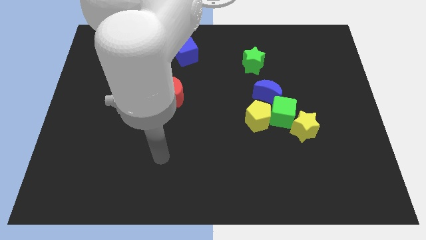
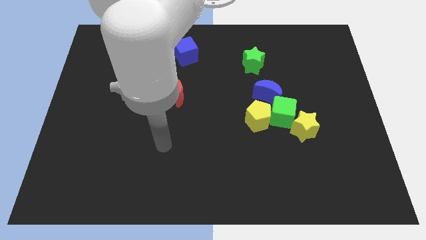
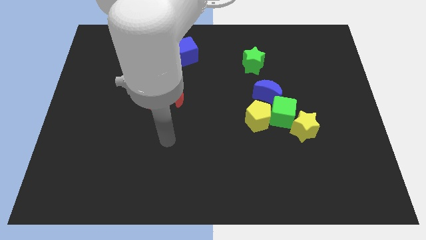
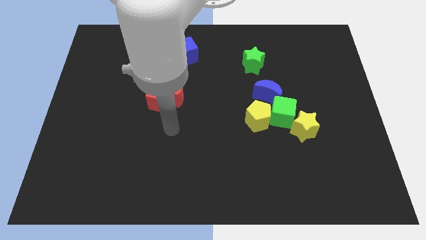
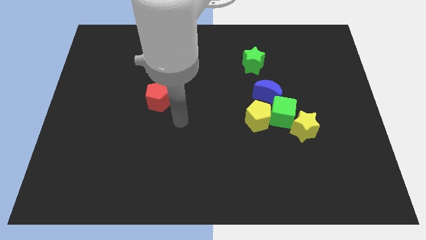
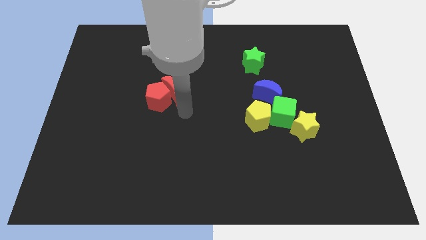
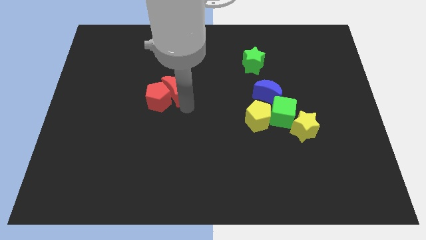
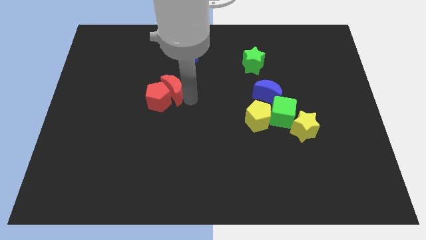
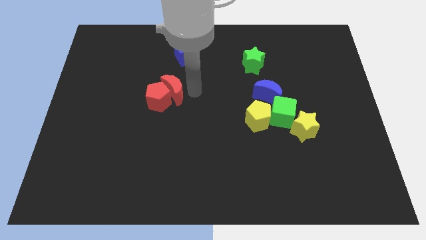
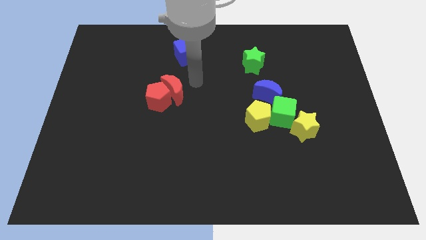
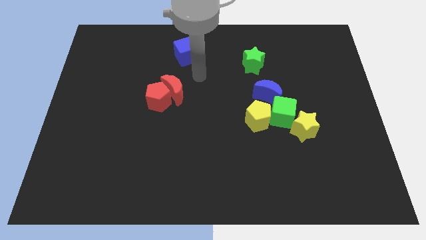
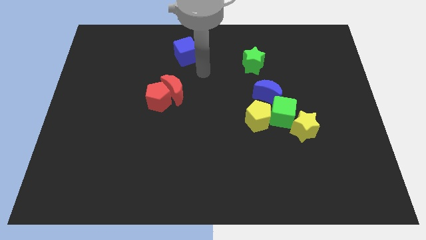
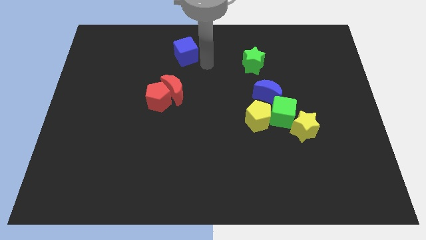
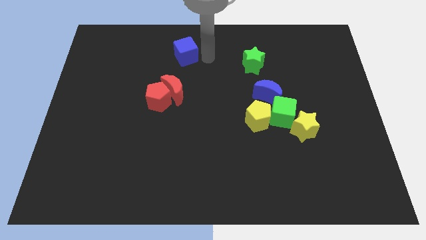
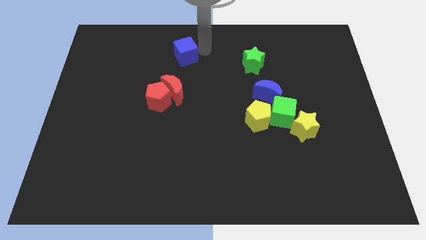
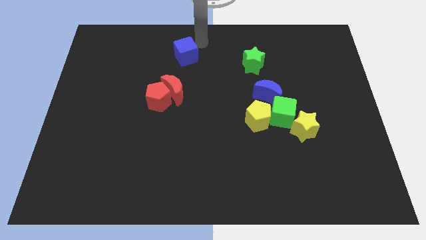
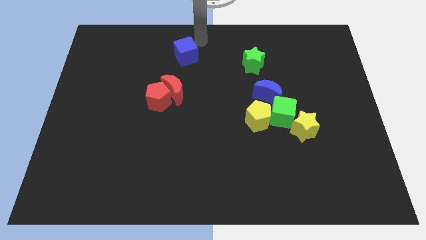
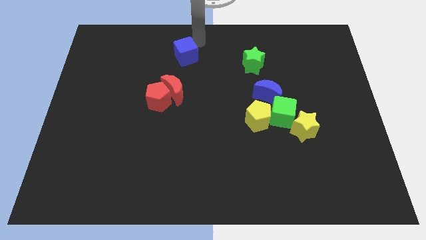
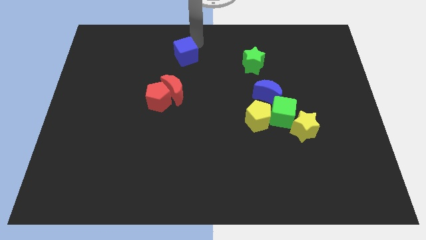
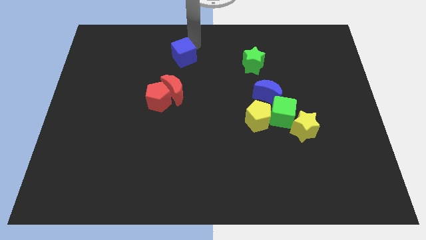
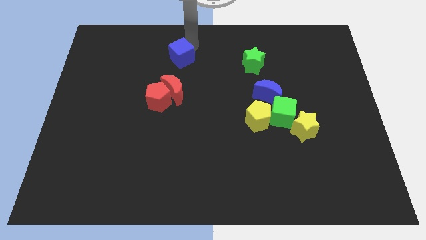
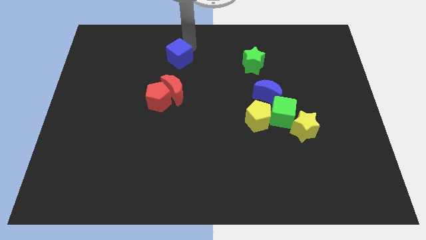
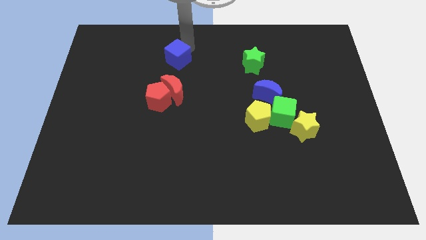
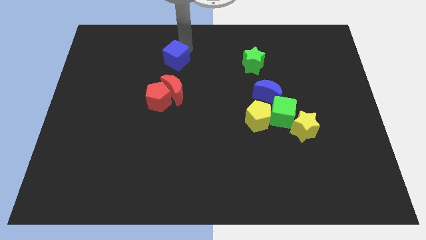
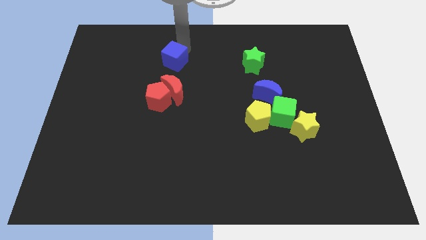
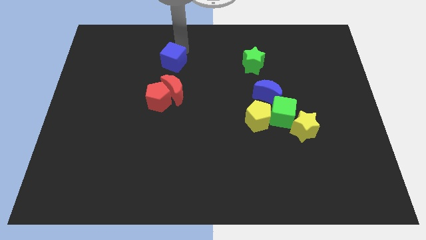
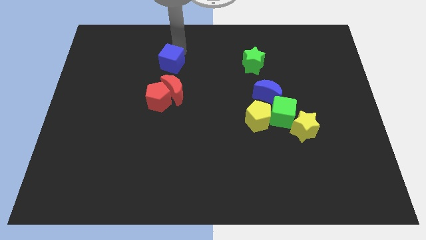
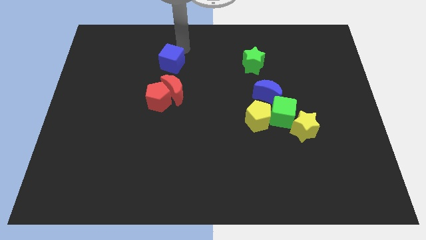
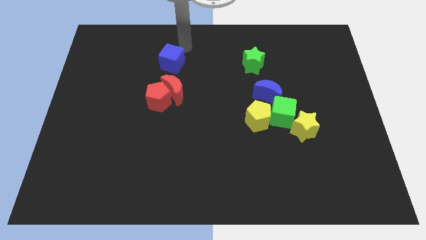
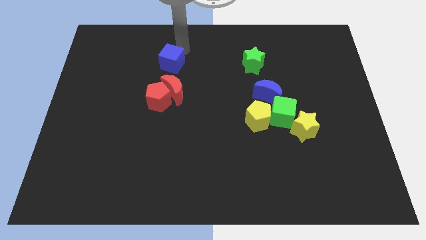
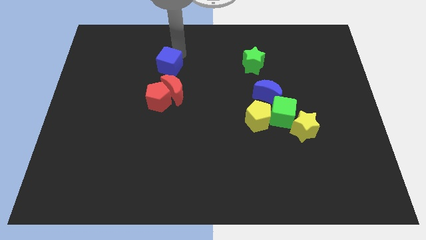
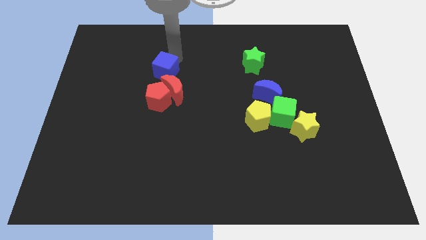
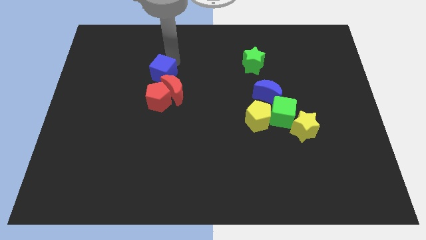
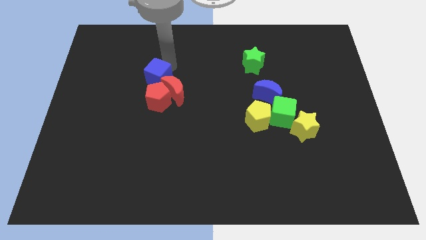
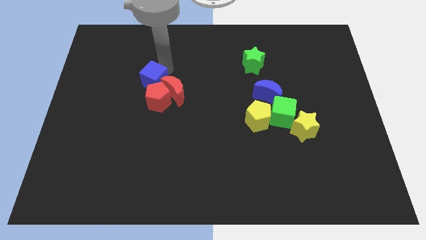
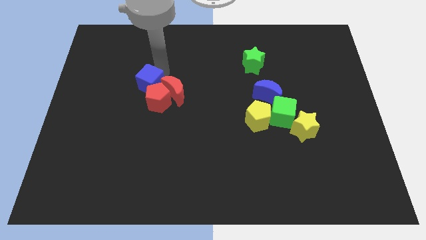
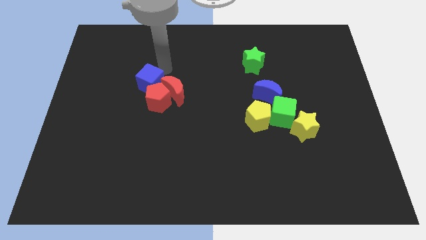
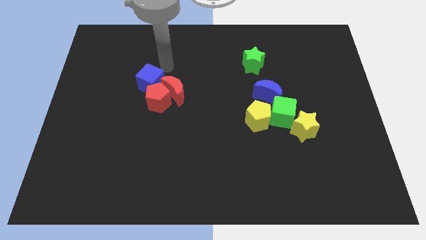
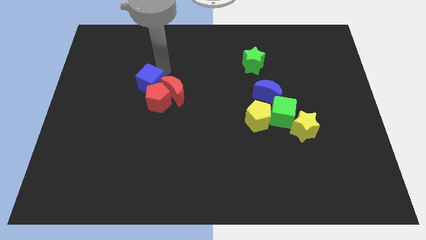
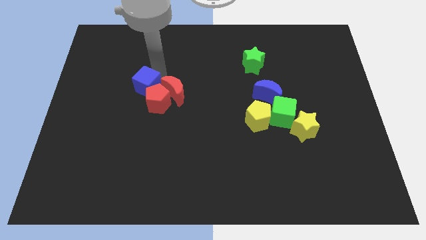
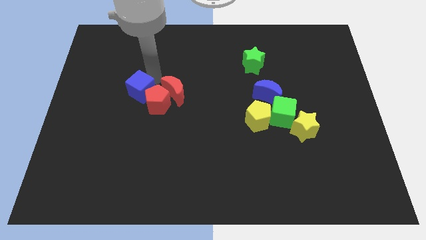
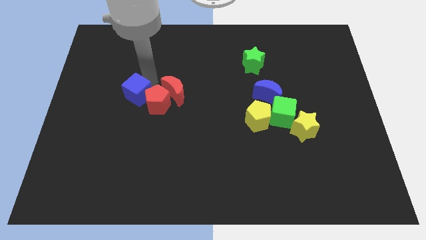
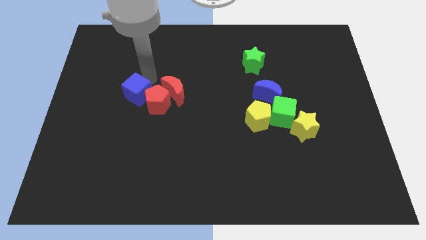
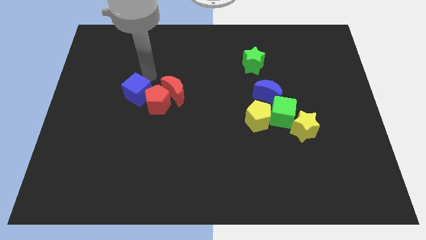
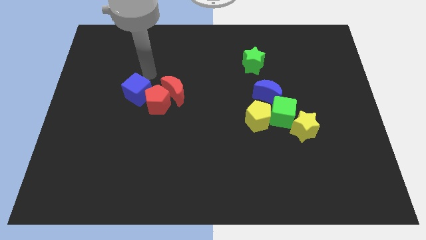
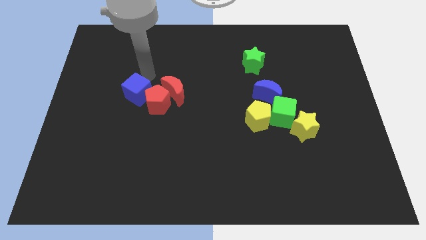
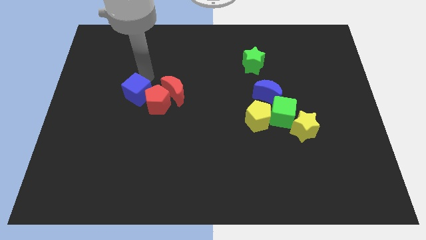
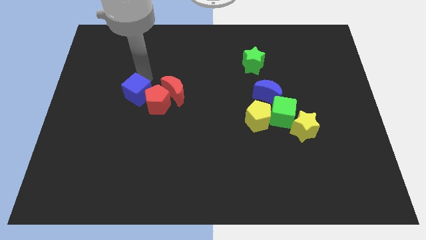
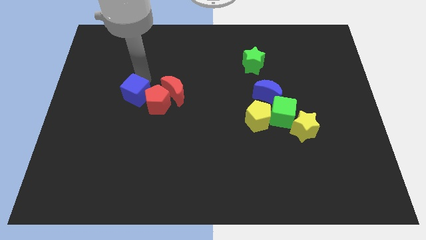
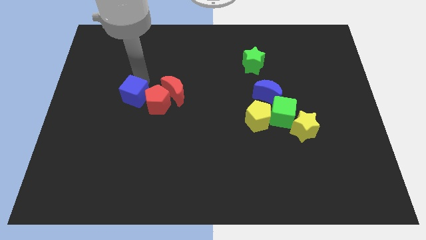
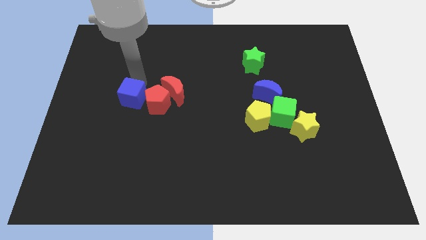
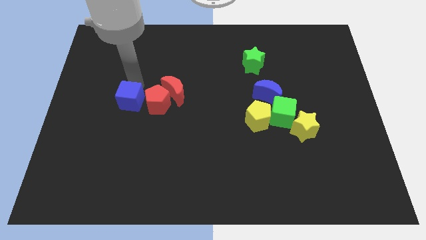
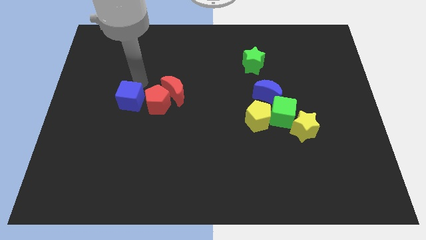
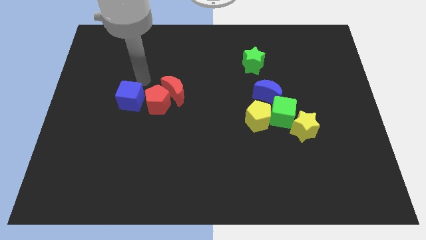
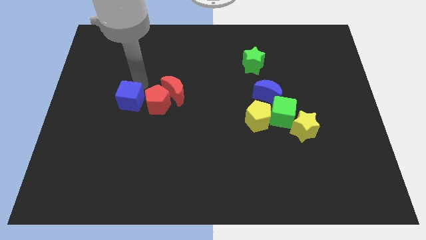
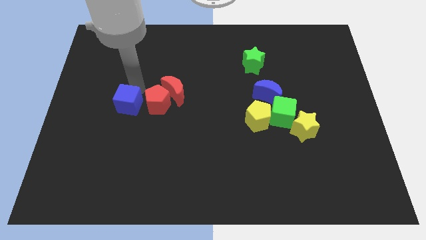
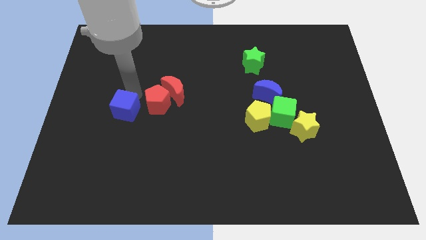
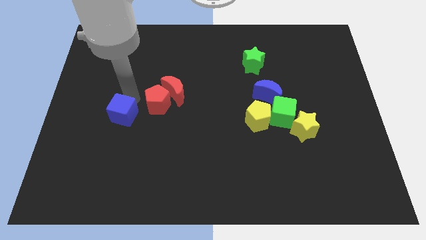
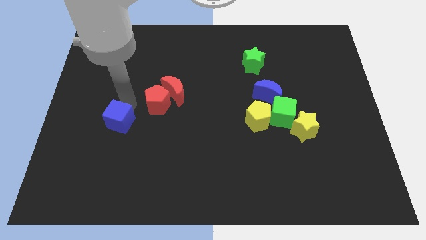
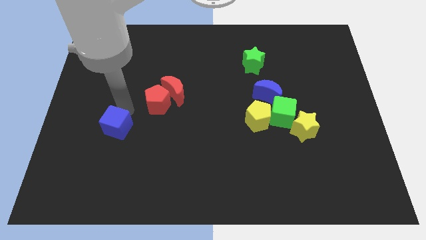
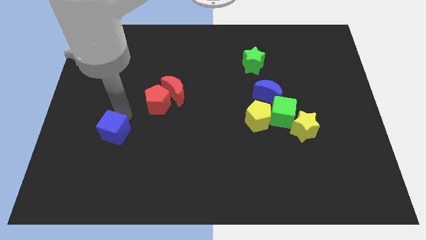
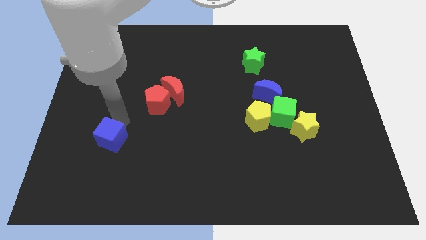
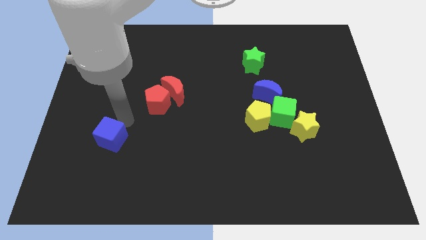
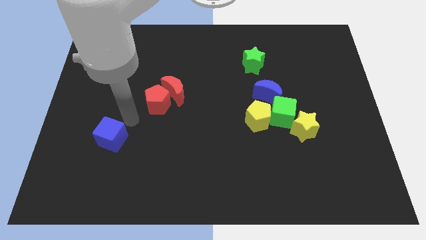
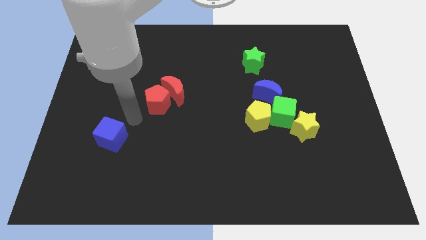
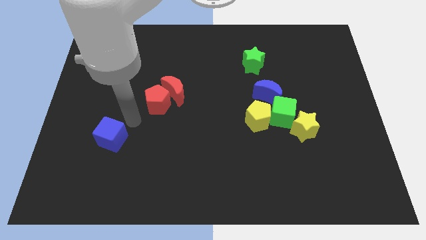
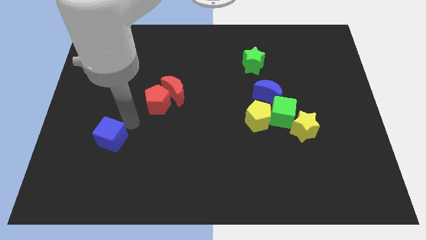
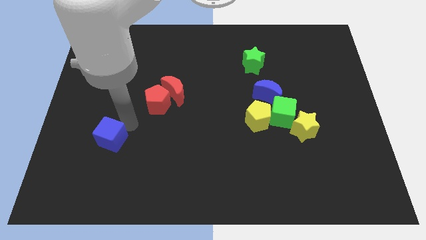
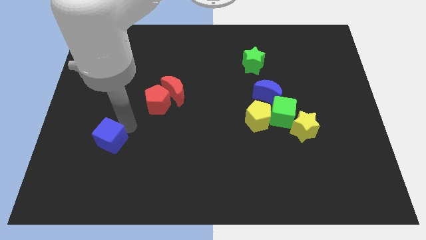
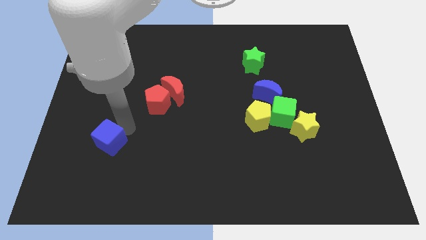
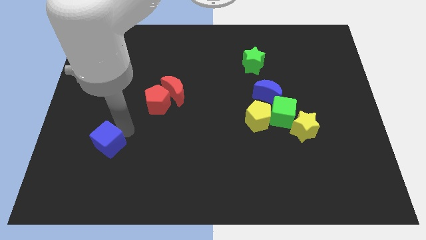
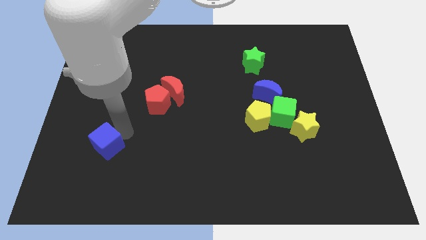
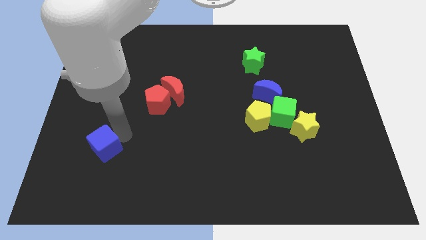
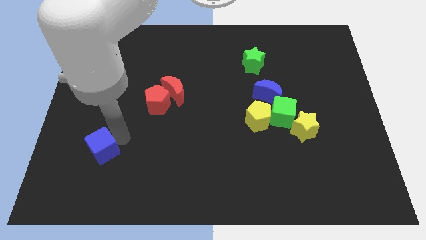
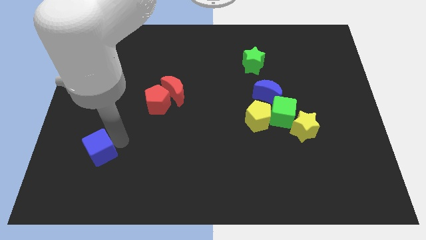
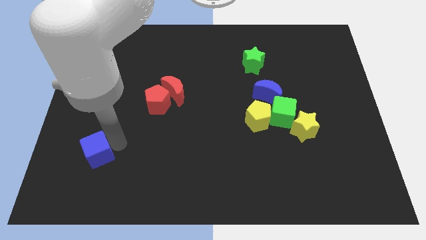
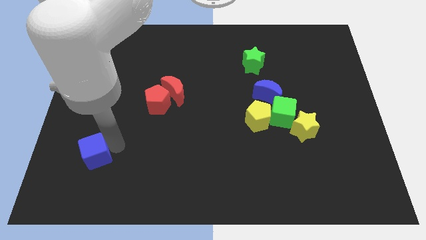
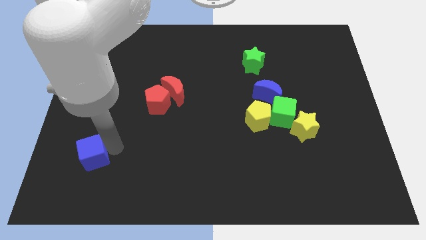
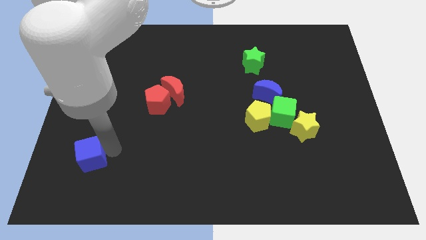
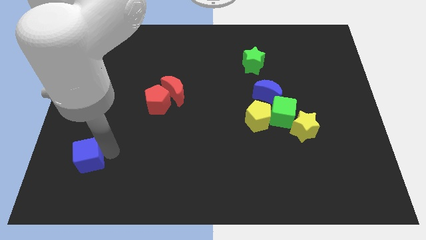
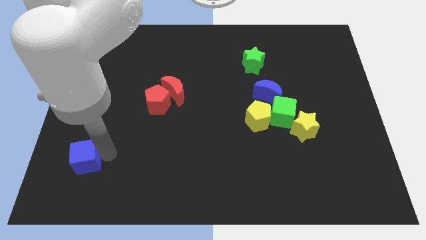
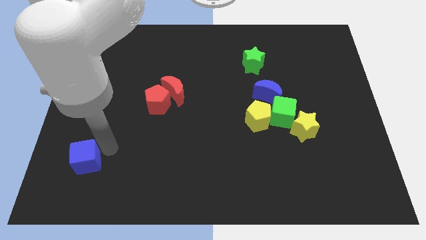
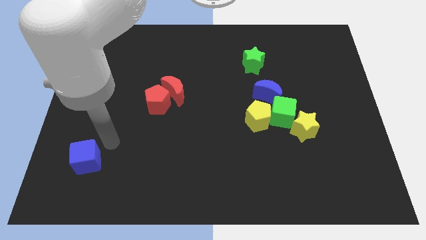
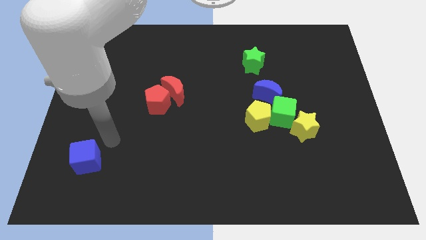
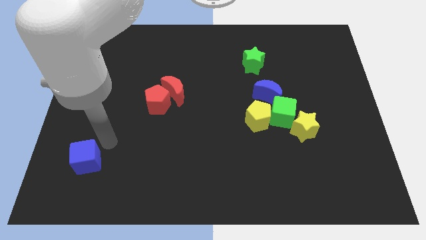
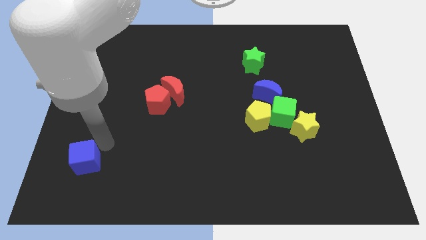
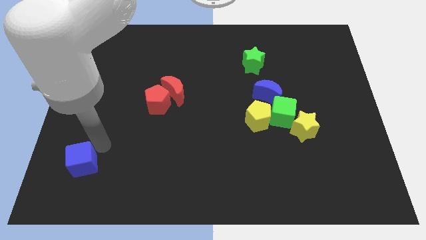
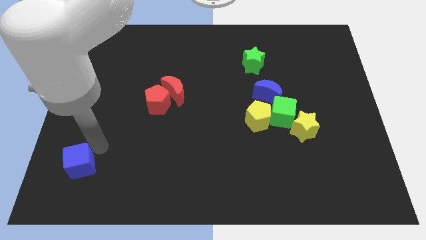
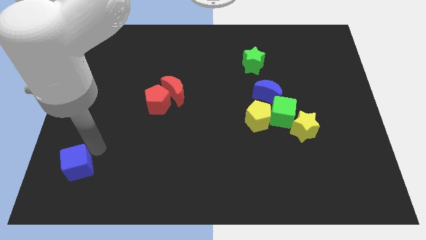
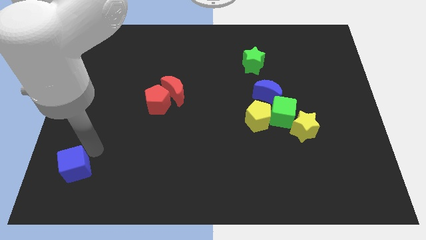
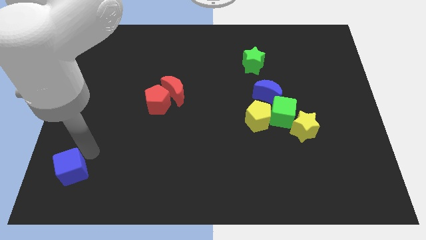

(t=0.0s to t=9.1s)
move the blue cube to the lower left corner
